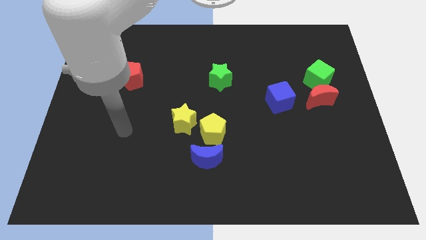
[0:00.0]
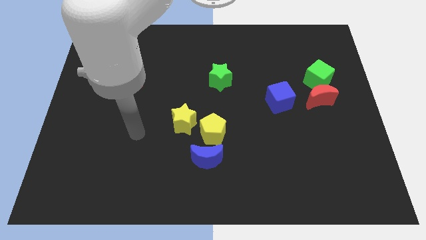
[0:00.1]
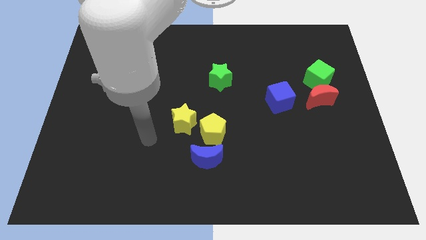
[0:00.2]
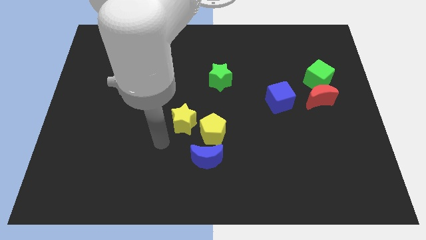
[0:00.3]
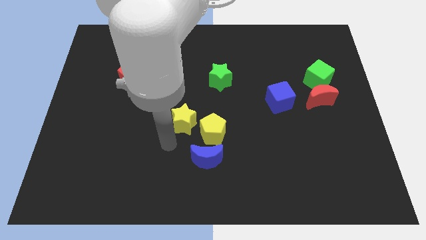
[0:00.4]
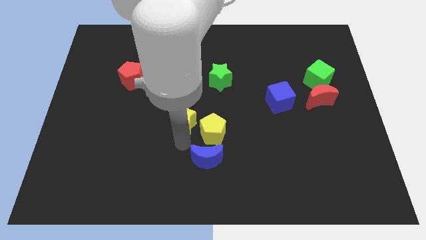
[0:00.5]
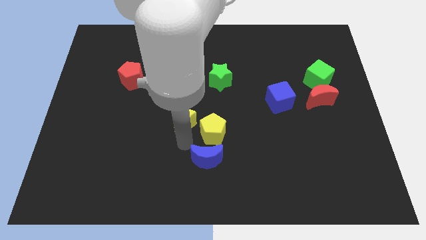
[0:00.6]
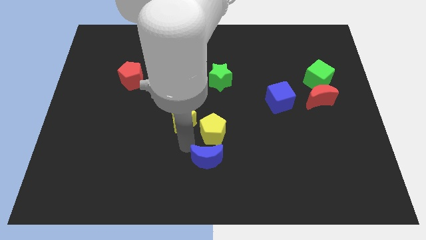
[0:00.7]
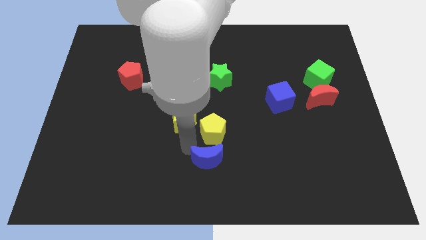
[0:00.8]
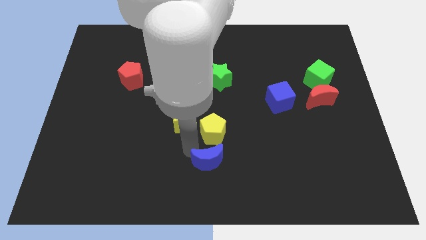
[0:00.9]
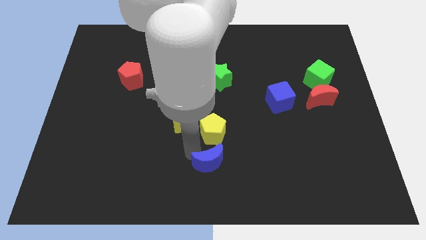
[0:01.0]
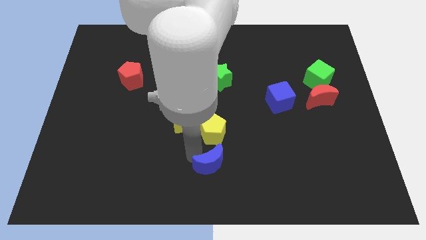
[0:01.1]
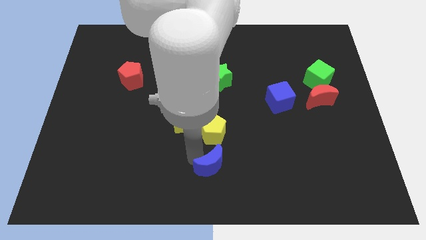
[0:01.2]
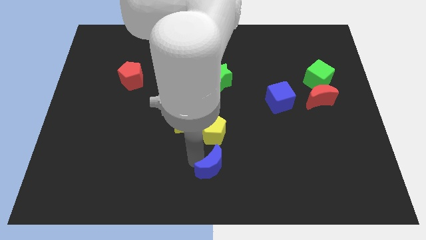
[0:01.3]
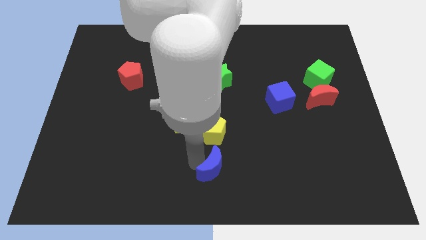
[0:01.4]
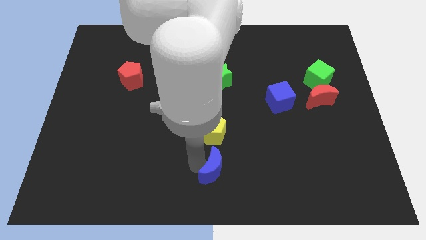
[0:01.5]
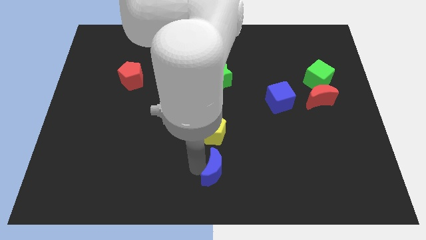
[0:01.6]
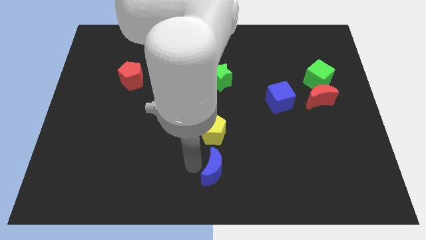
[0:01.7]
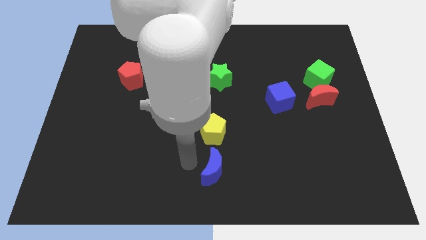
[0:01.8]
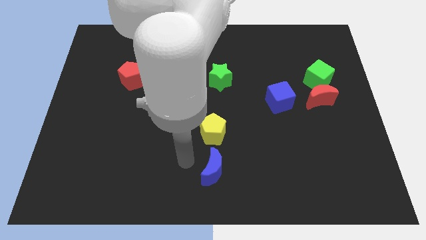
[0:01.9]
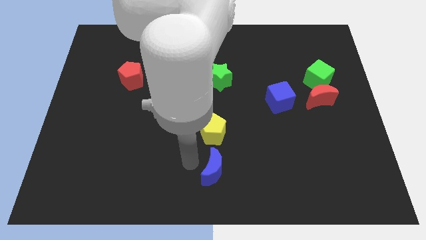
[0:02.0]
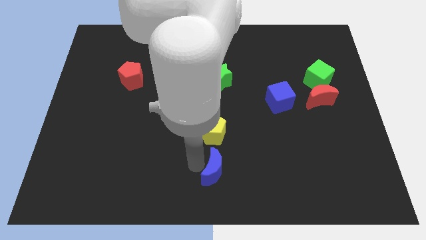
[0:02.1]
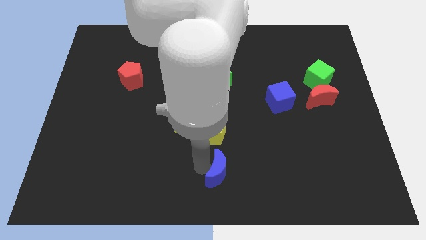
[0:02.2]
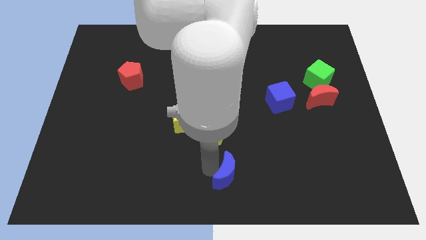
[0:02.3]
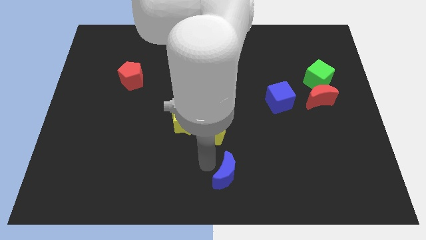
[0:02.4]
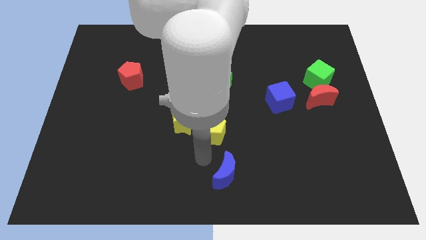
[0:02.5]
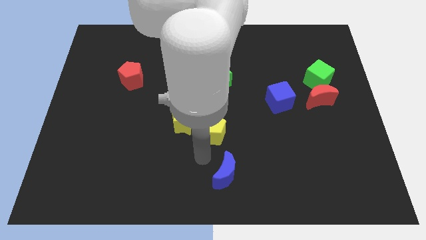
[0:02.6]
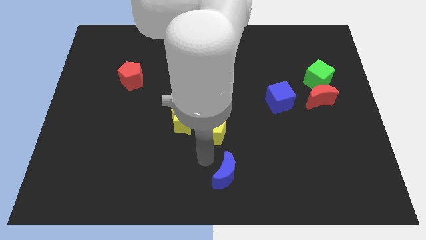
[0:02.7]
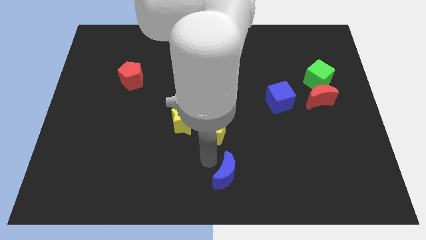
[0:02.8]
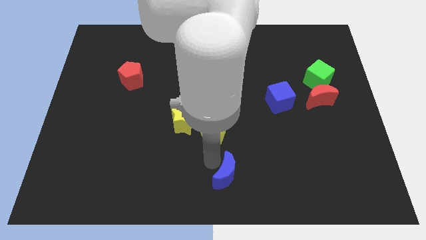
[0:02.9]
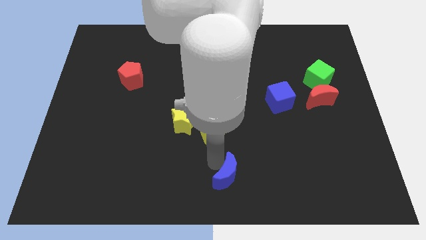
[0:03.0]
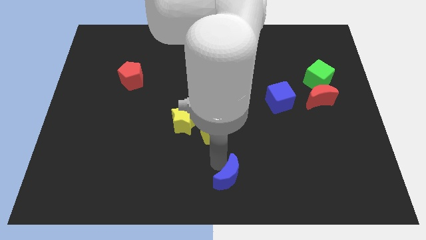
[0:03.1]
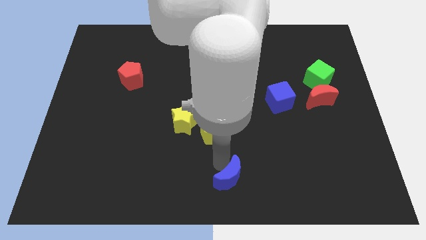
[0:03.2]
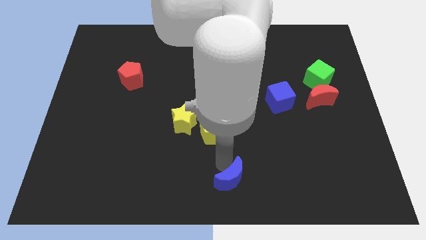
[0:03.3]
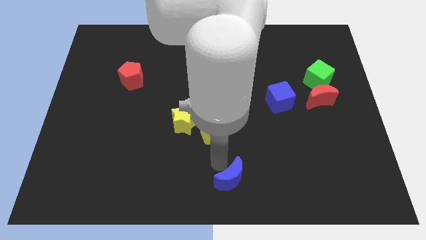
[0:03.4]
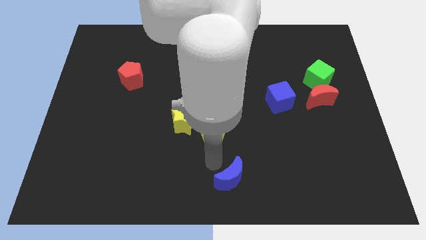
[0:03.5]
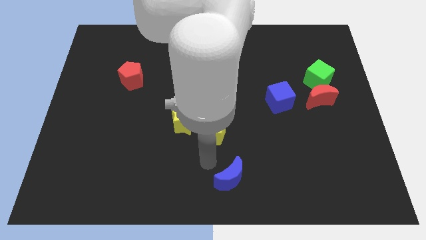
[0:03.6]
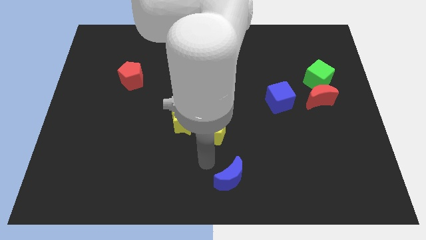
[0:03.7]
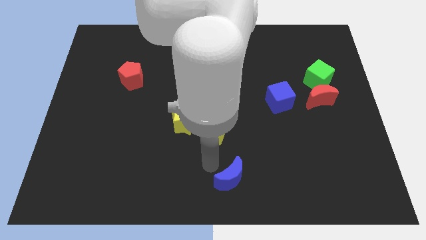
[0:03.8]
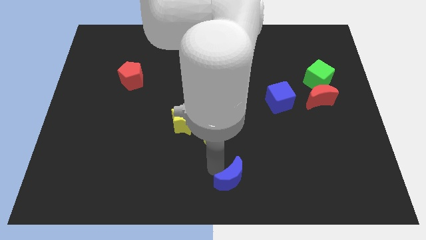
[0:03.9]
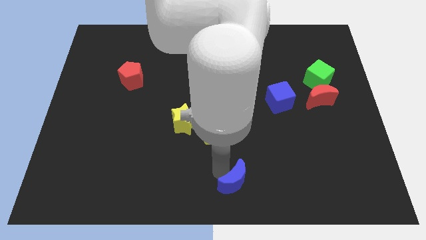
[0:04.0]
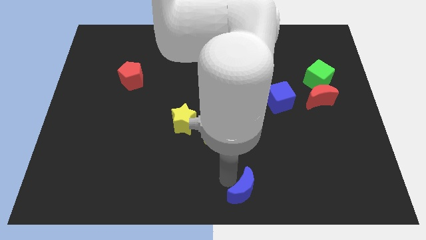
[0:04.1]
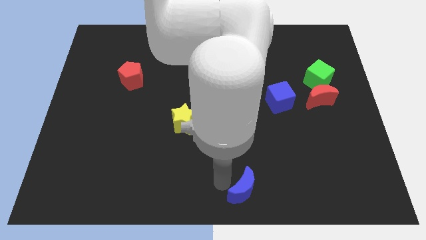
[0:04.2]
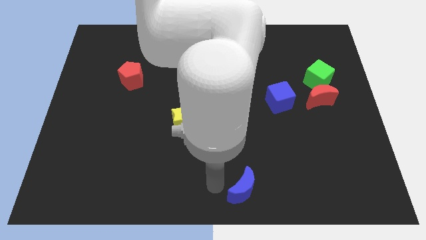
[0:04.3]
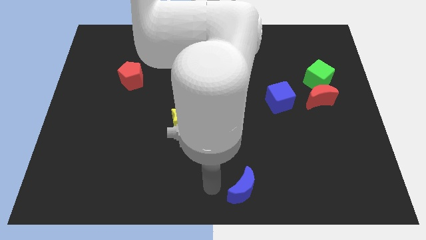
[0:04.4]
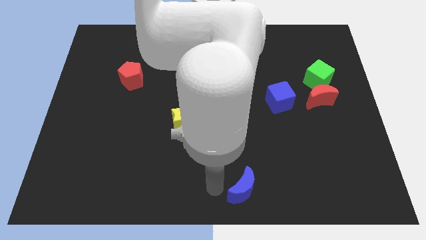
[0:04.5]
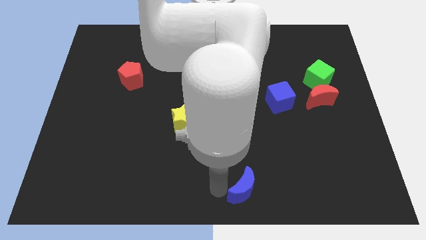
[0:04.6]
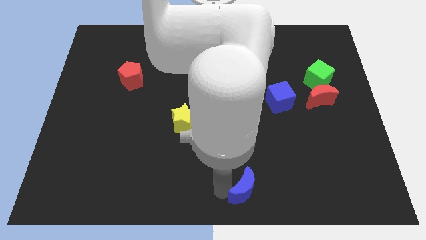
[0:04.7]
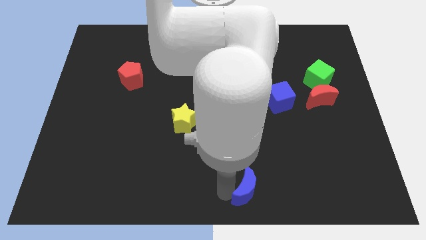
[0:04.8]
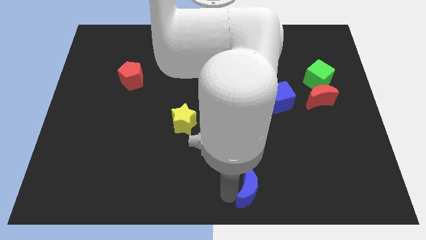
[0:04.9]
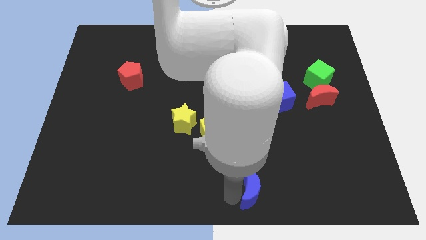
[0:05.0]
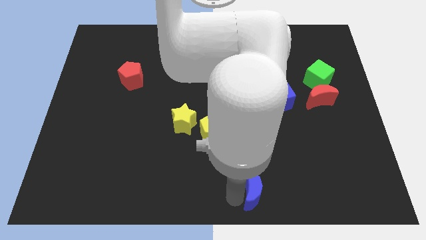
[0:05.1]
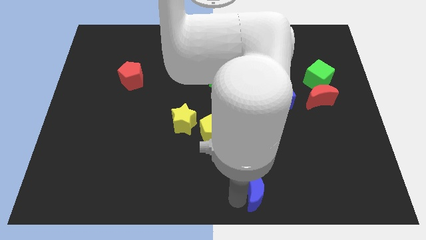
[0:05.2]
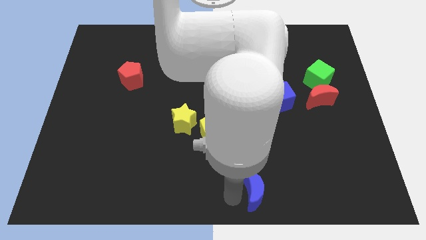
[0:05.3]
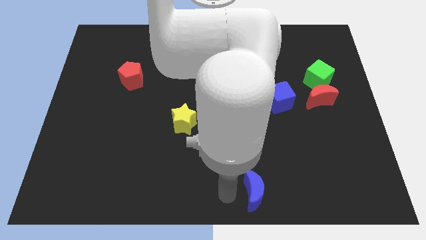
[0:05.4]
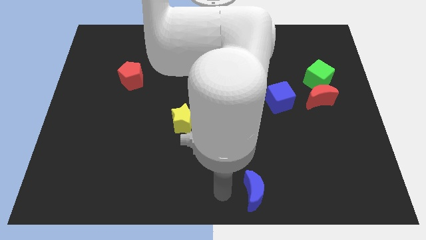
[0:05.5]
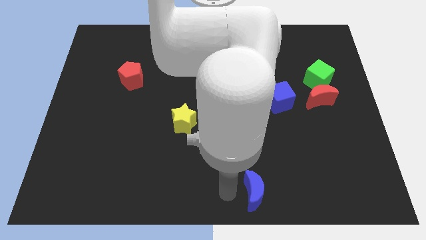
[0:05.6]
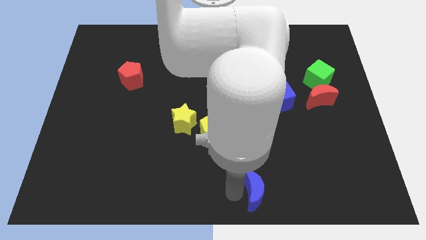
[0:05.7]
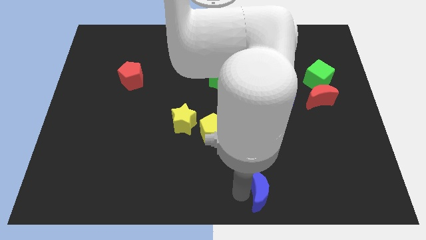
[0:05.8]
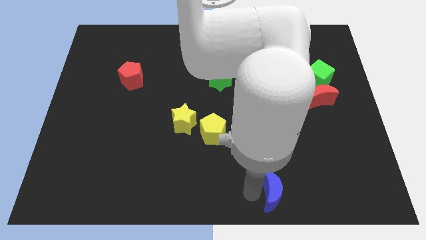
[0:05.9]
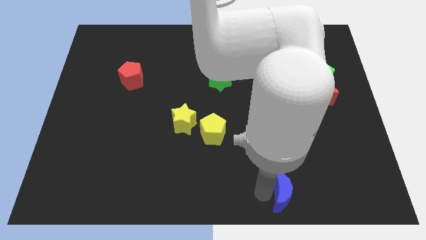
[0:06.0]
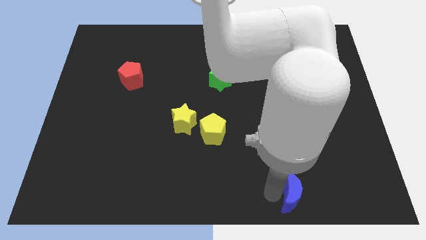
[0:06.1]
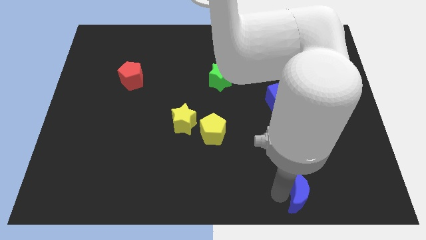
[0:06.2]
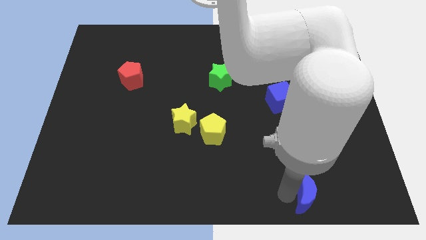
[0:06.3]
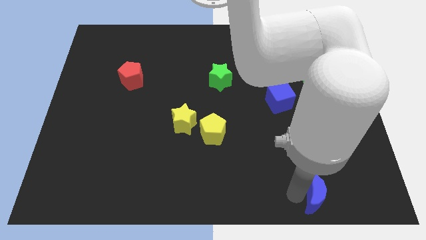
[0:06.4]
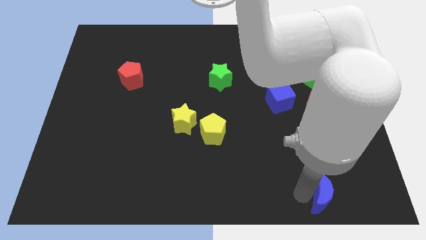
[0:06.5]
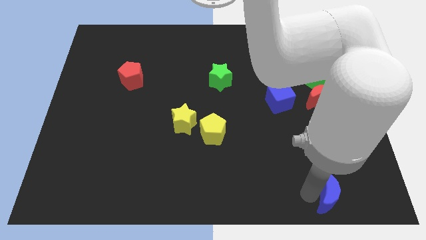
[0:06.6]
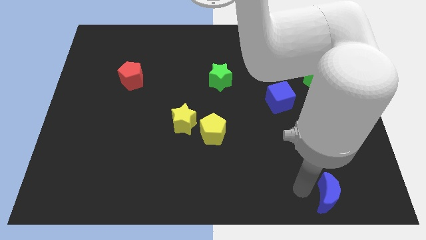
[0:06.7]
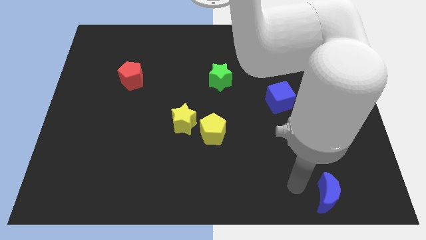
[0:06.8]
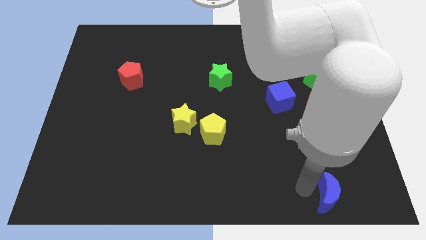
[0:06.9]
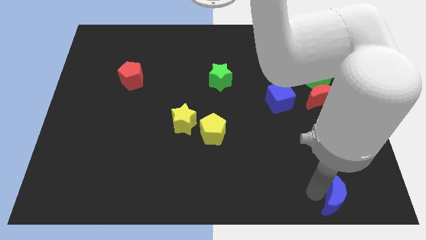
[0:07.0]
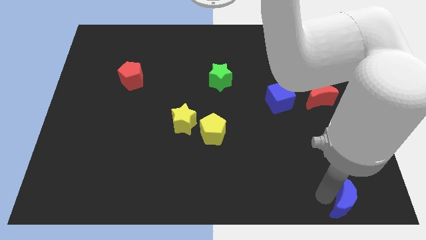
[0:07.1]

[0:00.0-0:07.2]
move the blue moon to the bottom right corner

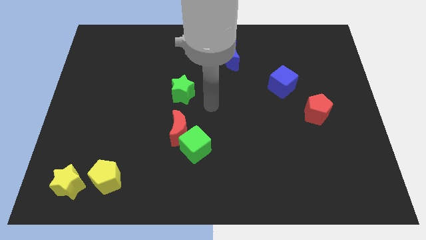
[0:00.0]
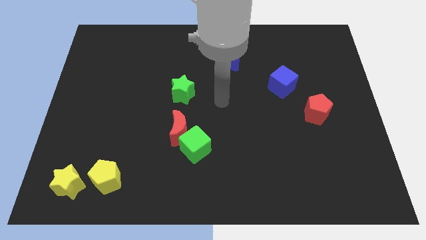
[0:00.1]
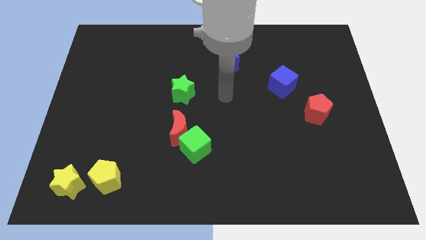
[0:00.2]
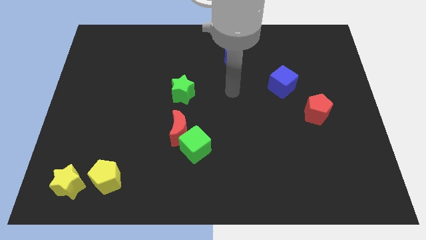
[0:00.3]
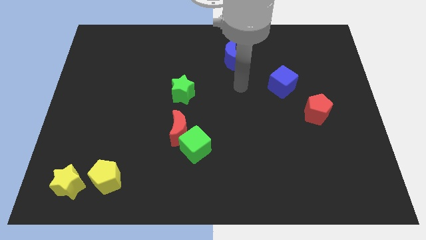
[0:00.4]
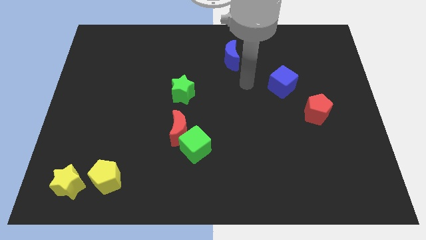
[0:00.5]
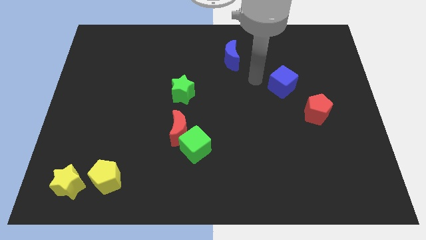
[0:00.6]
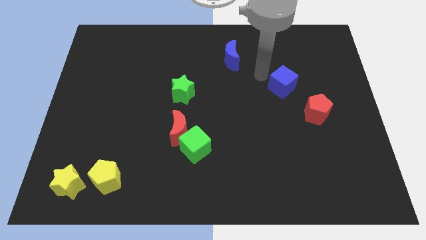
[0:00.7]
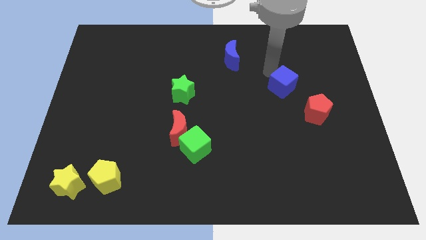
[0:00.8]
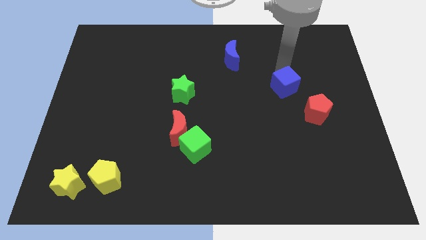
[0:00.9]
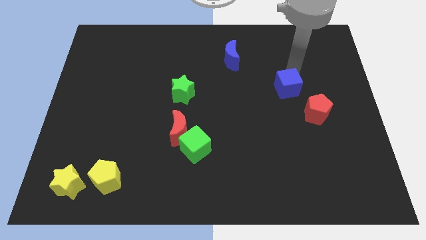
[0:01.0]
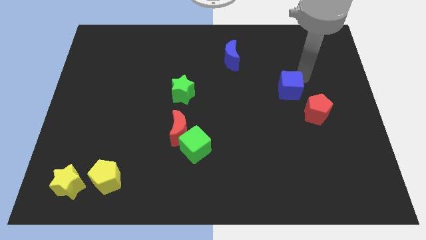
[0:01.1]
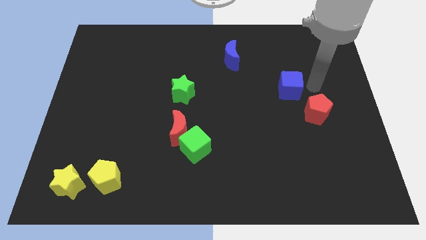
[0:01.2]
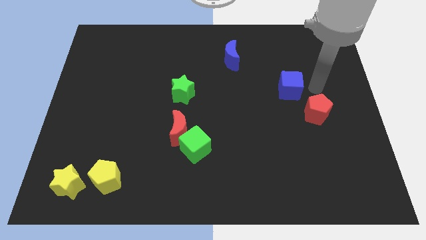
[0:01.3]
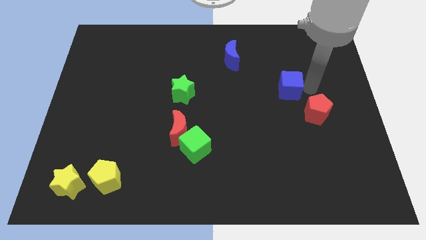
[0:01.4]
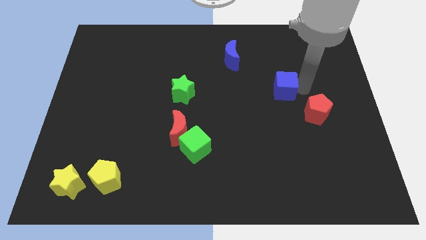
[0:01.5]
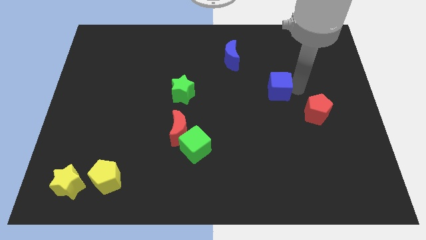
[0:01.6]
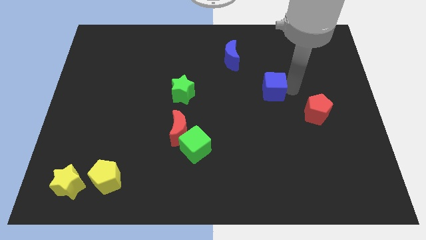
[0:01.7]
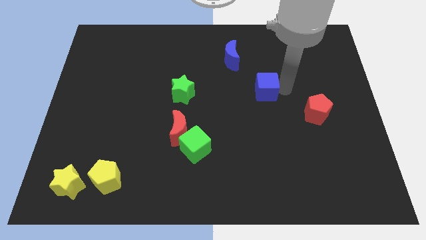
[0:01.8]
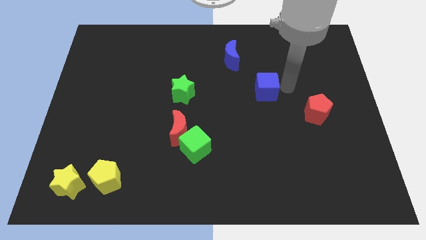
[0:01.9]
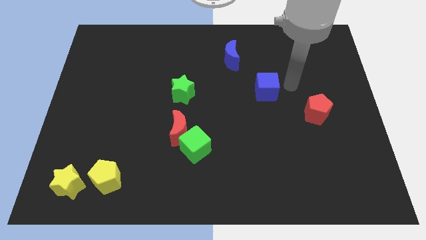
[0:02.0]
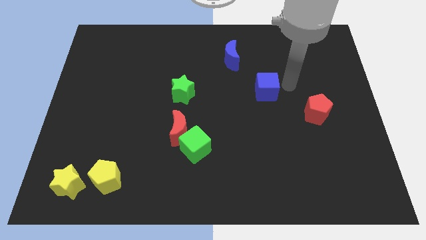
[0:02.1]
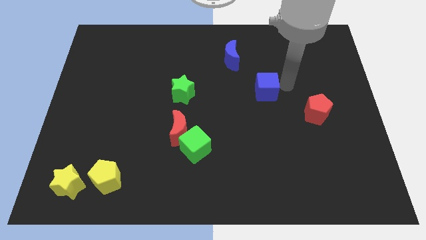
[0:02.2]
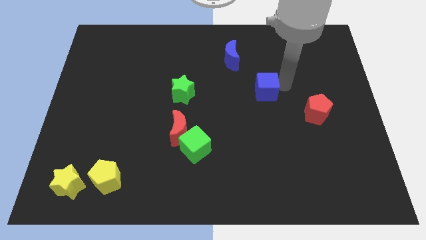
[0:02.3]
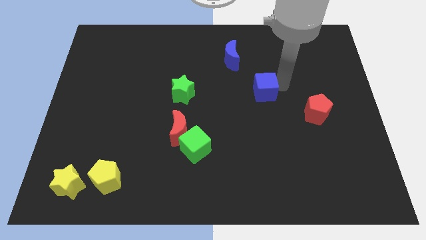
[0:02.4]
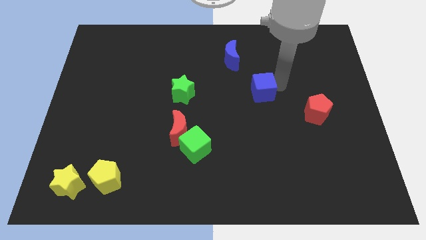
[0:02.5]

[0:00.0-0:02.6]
push the blue cube to the middle
